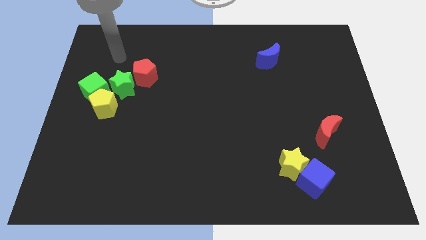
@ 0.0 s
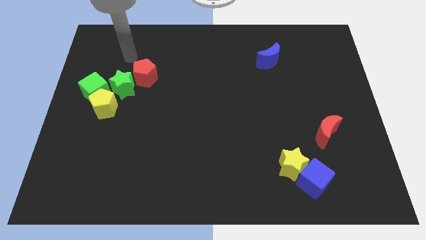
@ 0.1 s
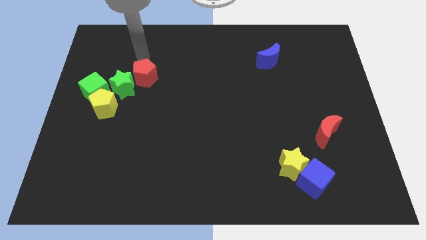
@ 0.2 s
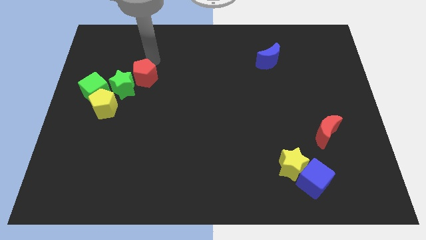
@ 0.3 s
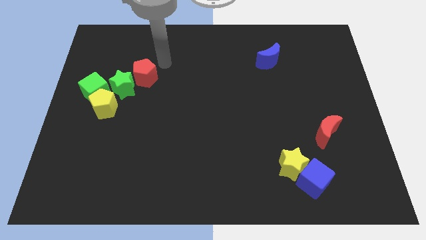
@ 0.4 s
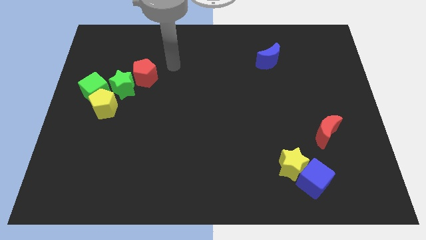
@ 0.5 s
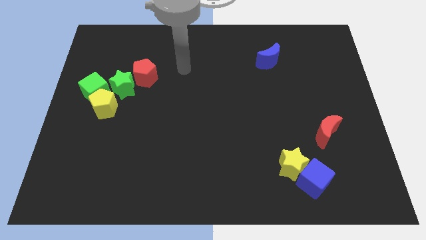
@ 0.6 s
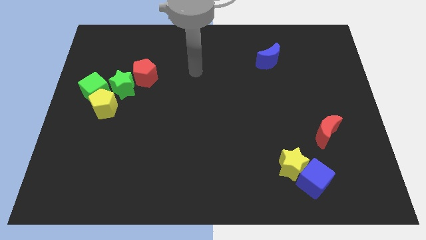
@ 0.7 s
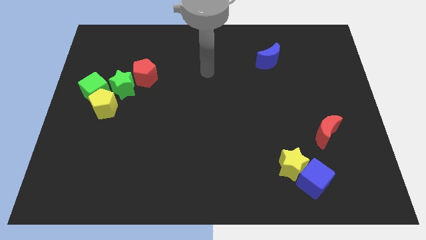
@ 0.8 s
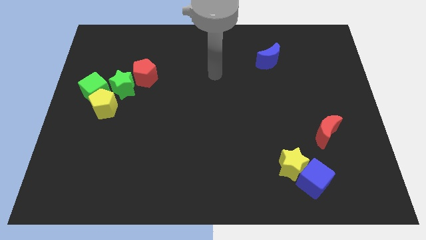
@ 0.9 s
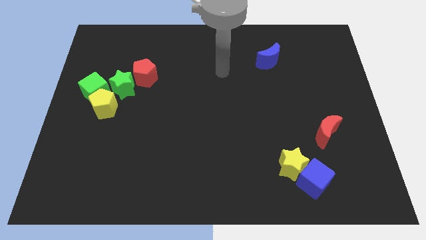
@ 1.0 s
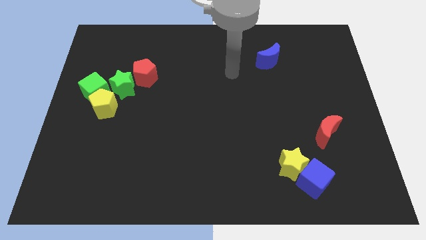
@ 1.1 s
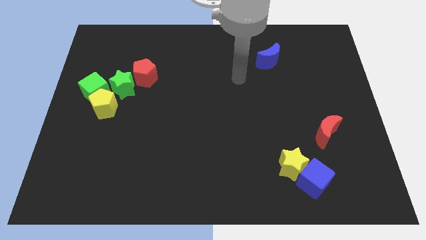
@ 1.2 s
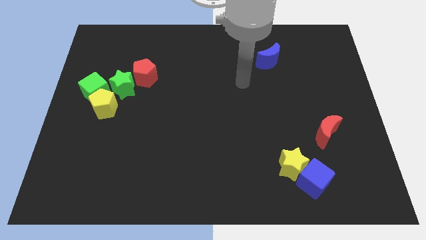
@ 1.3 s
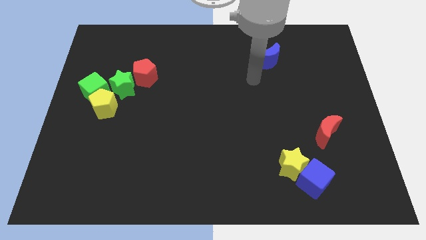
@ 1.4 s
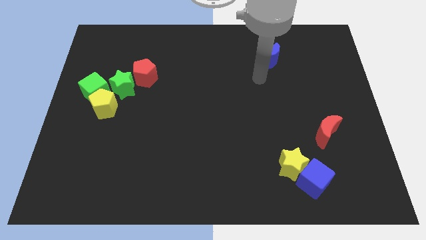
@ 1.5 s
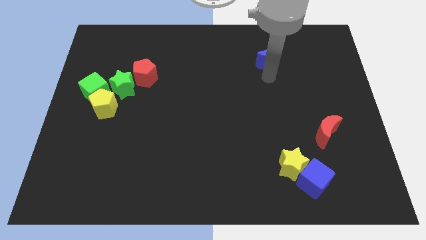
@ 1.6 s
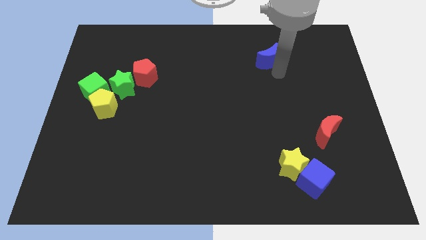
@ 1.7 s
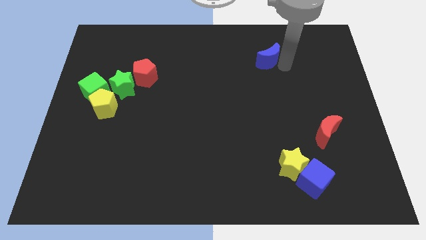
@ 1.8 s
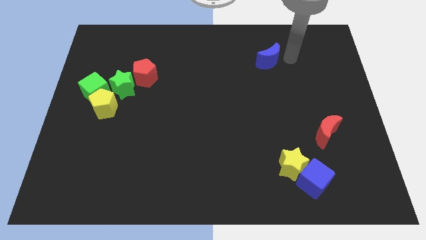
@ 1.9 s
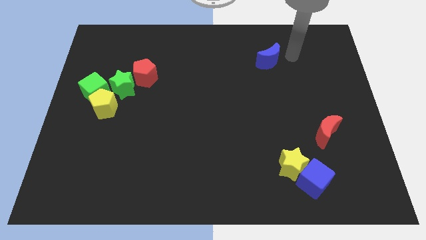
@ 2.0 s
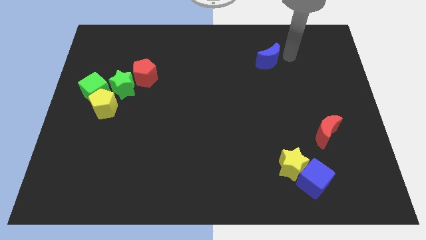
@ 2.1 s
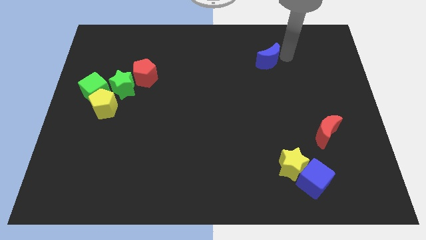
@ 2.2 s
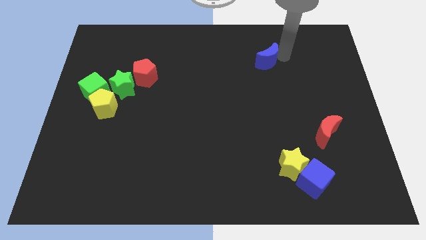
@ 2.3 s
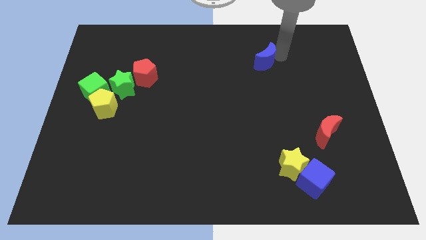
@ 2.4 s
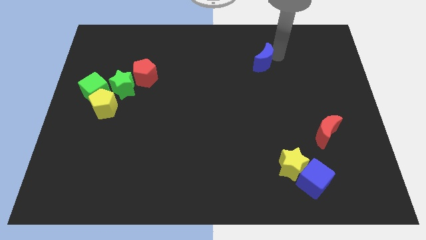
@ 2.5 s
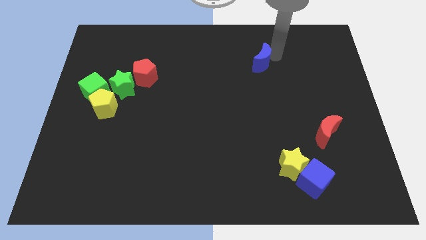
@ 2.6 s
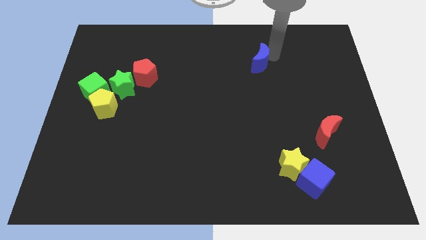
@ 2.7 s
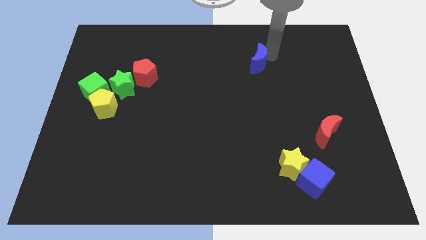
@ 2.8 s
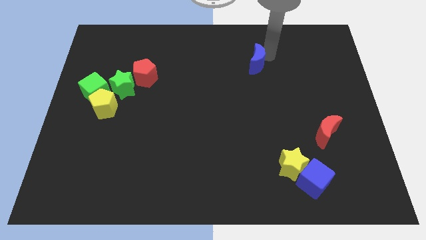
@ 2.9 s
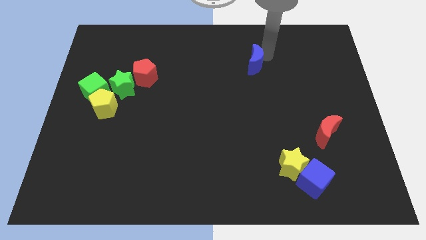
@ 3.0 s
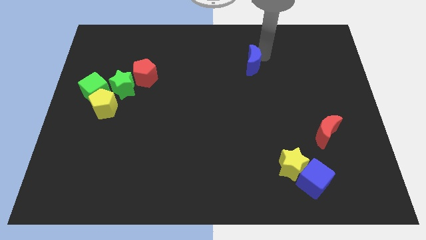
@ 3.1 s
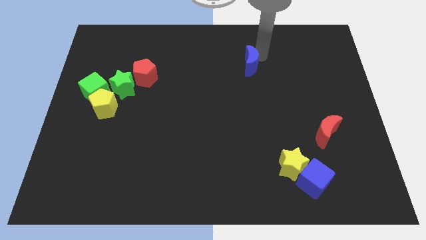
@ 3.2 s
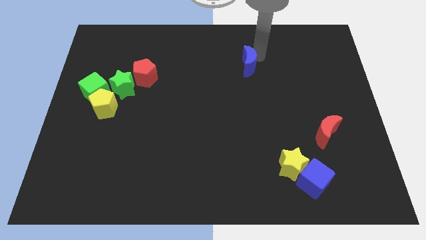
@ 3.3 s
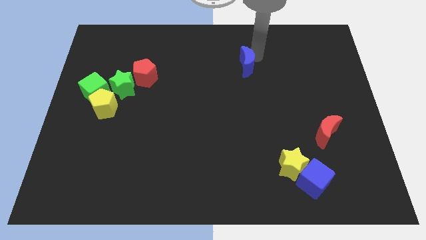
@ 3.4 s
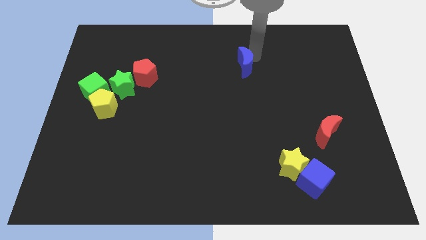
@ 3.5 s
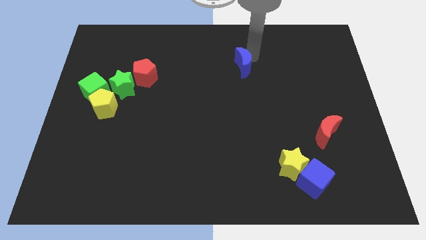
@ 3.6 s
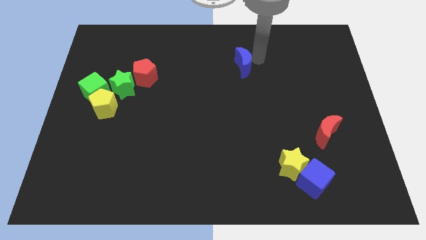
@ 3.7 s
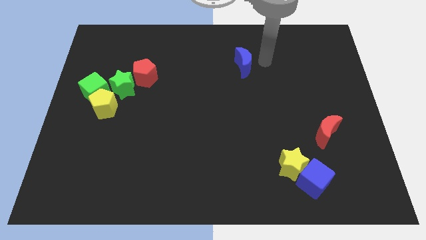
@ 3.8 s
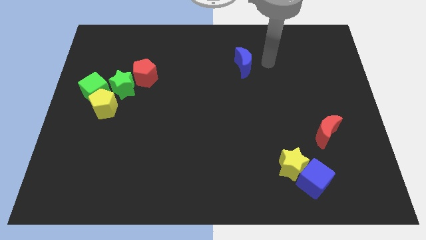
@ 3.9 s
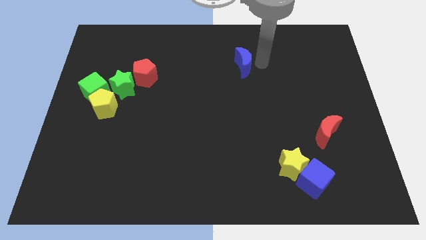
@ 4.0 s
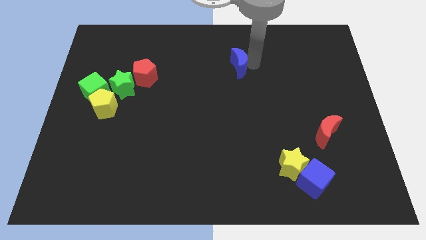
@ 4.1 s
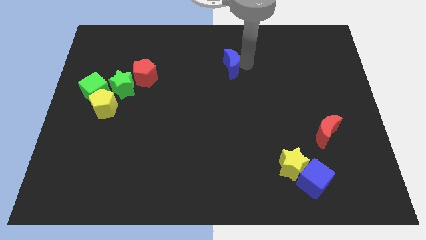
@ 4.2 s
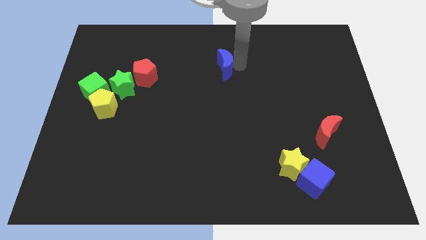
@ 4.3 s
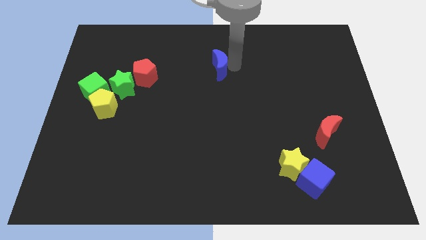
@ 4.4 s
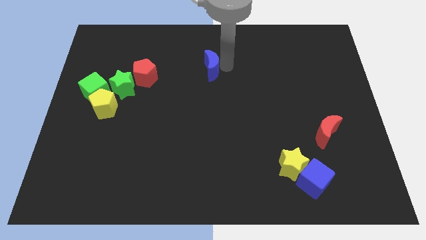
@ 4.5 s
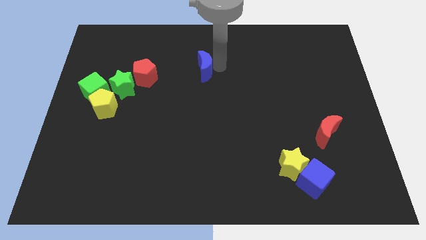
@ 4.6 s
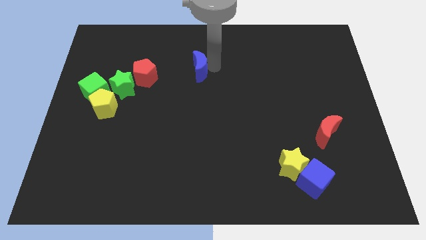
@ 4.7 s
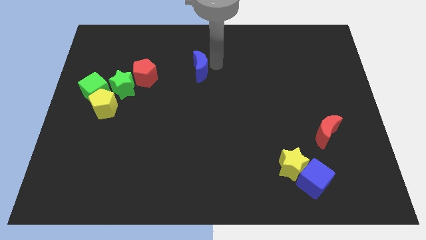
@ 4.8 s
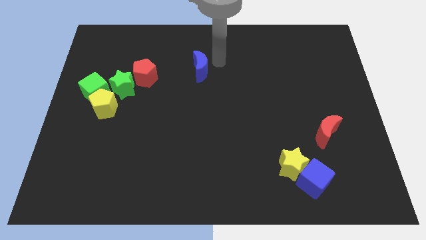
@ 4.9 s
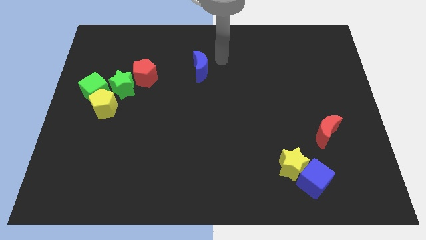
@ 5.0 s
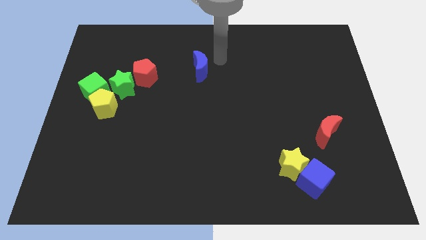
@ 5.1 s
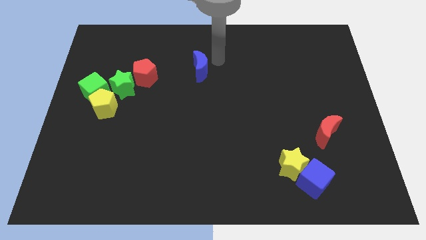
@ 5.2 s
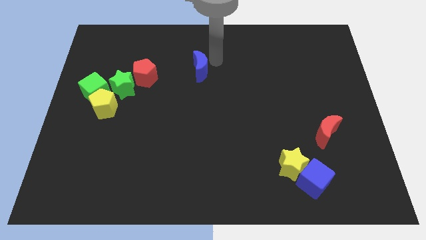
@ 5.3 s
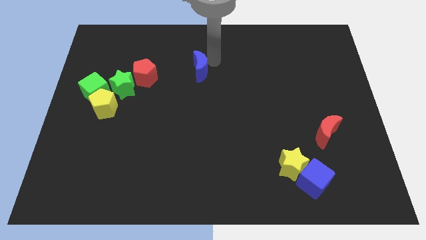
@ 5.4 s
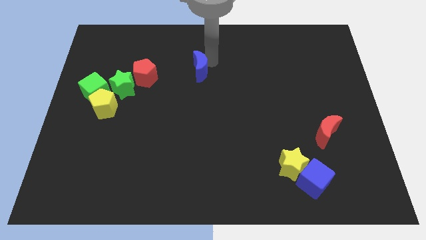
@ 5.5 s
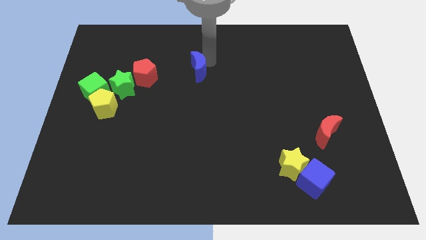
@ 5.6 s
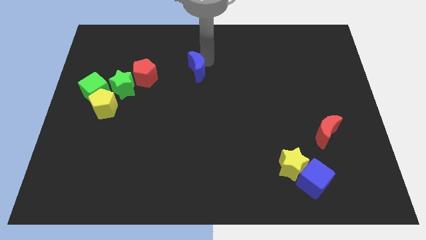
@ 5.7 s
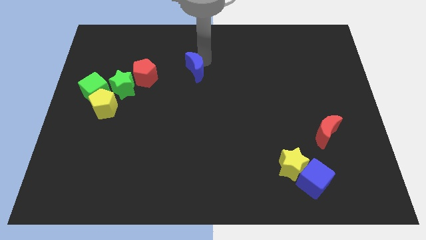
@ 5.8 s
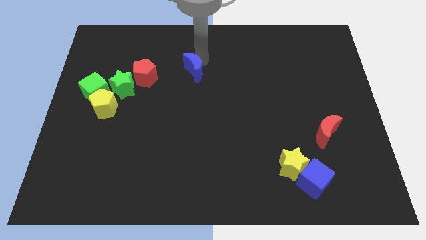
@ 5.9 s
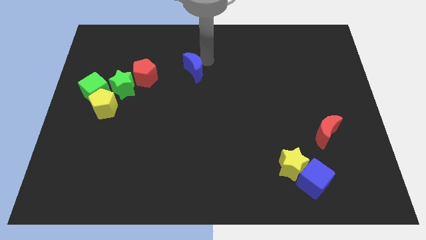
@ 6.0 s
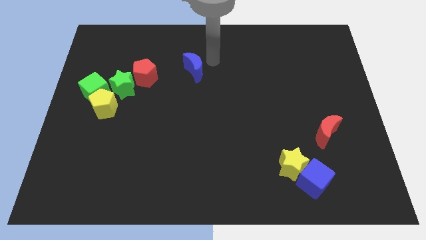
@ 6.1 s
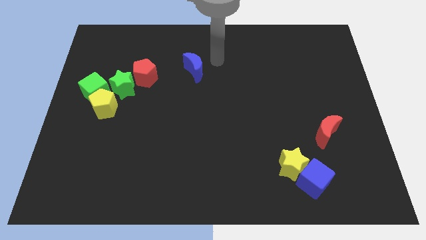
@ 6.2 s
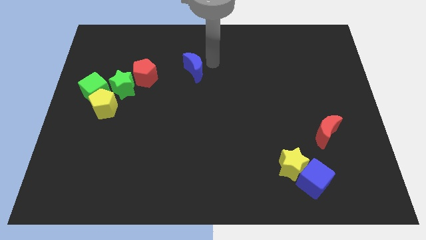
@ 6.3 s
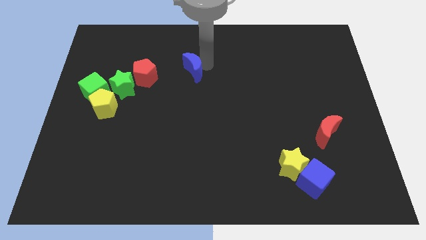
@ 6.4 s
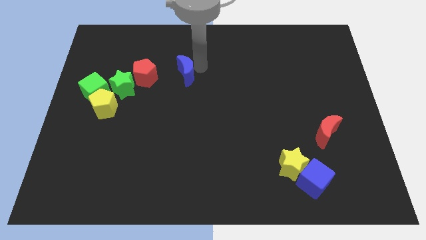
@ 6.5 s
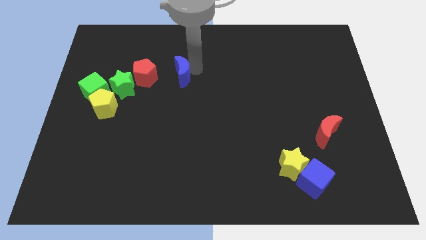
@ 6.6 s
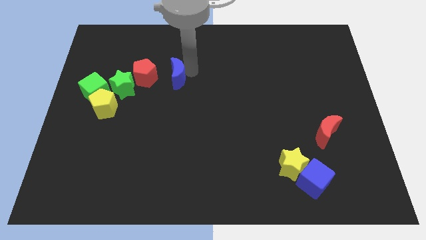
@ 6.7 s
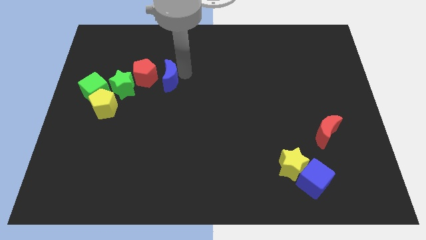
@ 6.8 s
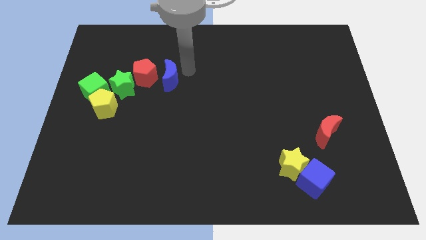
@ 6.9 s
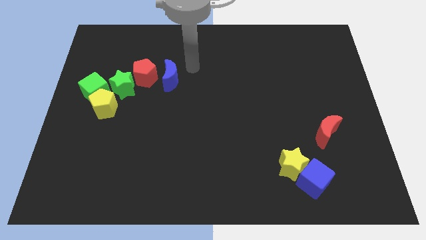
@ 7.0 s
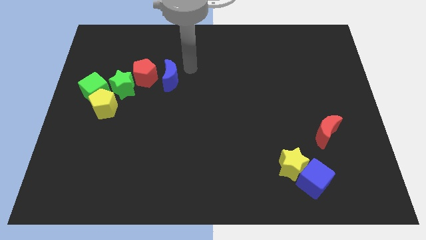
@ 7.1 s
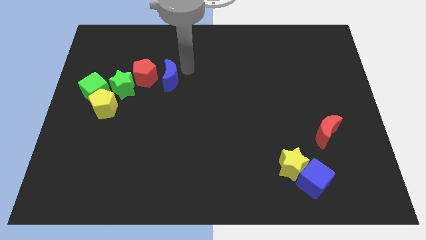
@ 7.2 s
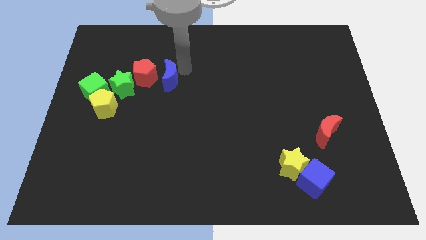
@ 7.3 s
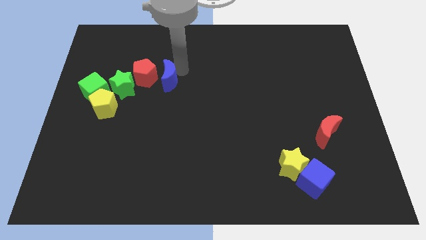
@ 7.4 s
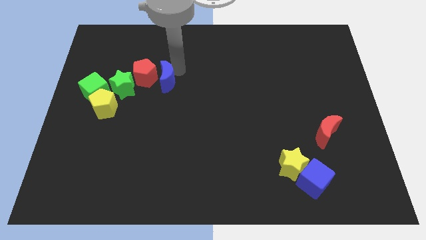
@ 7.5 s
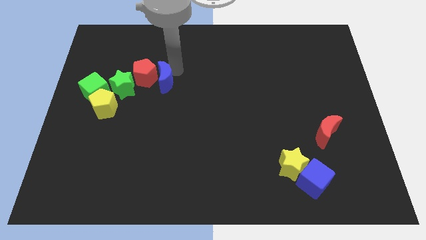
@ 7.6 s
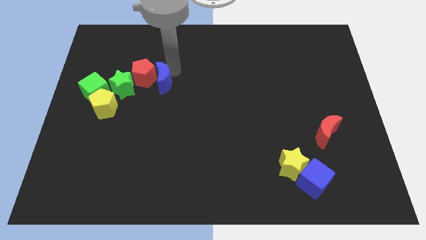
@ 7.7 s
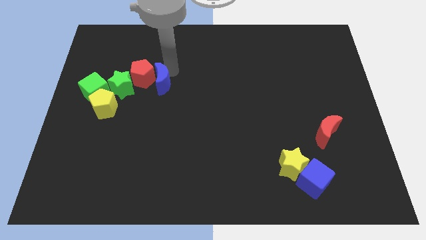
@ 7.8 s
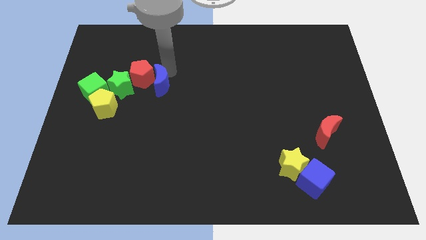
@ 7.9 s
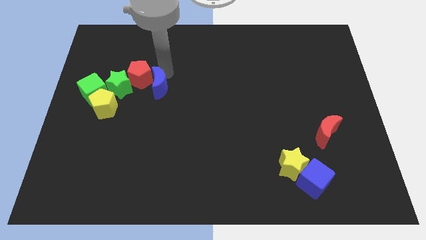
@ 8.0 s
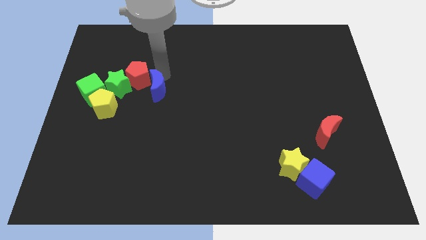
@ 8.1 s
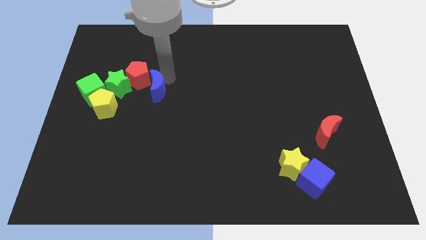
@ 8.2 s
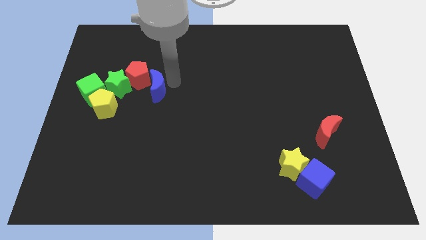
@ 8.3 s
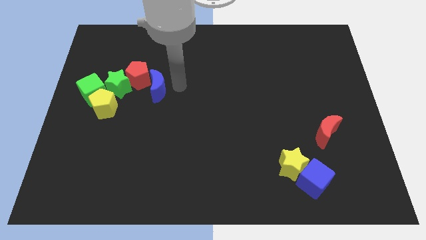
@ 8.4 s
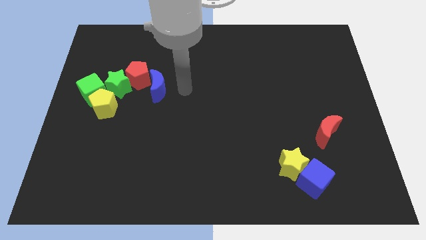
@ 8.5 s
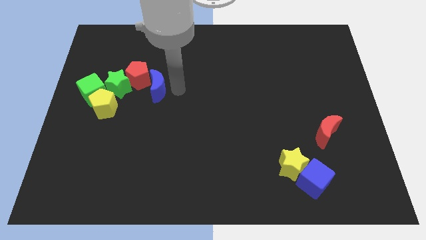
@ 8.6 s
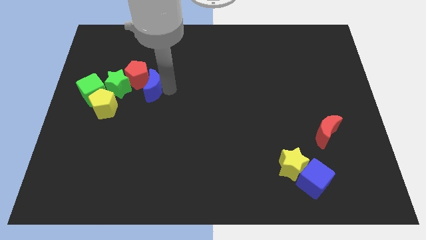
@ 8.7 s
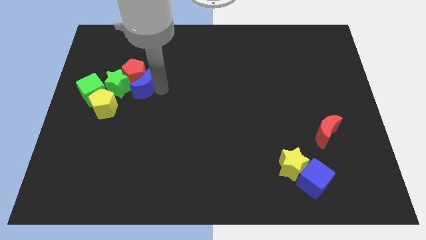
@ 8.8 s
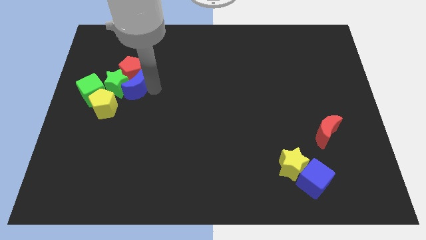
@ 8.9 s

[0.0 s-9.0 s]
push the blue moon close to the green star
